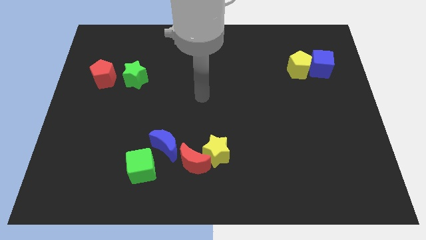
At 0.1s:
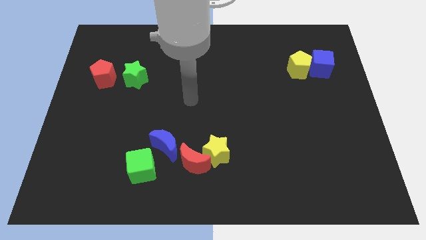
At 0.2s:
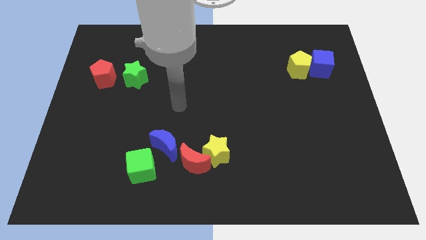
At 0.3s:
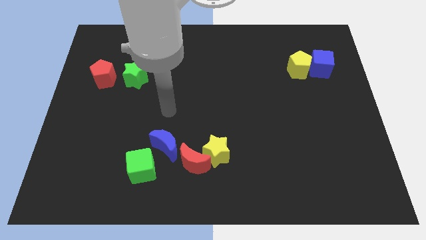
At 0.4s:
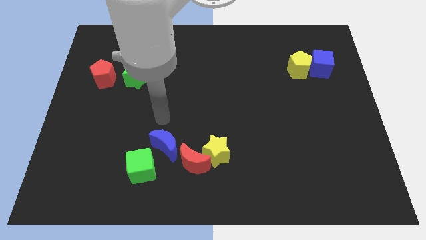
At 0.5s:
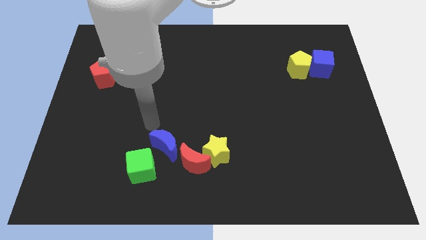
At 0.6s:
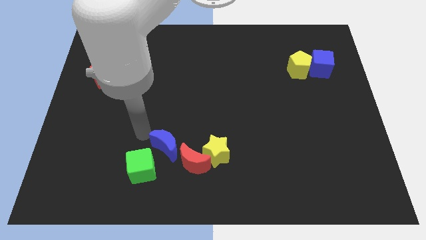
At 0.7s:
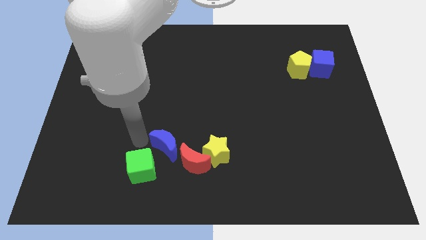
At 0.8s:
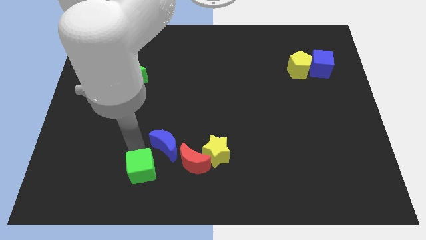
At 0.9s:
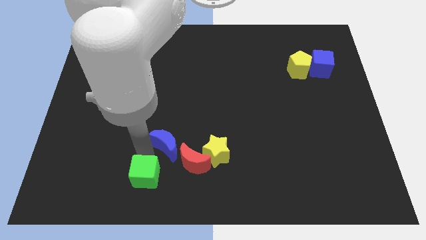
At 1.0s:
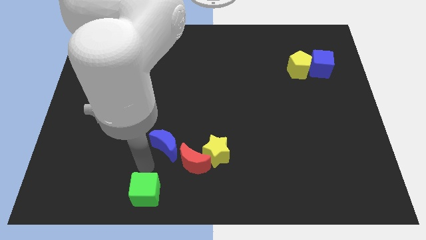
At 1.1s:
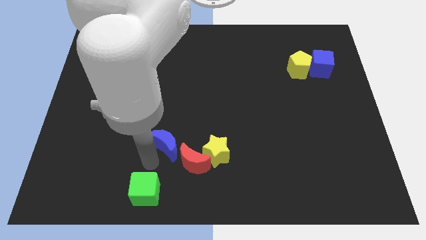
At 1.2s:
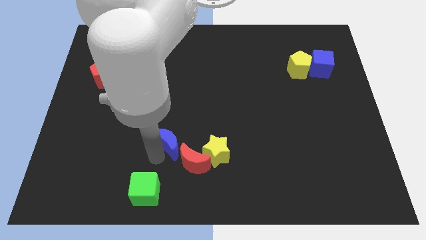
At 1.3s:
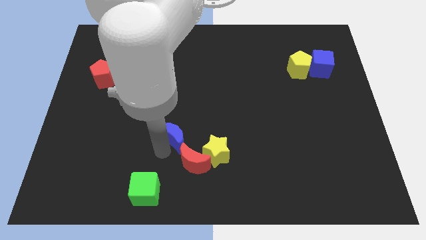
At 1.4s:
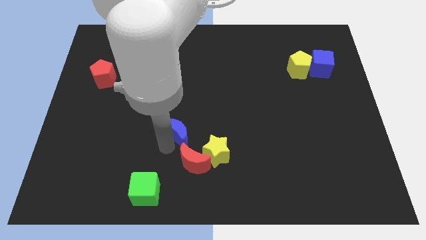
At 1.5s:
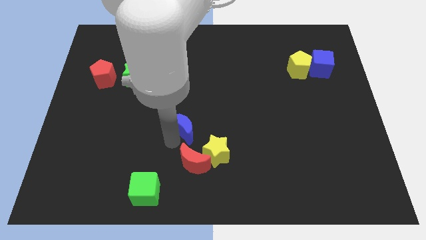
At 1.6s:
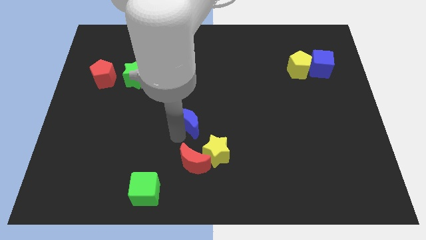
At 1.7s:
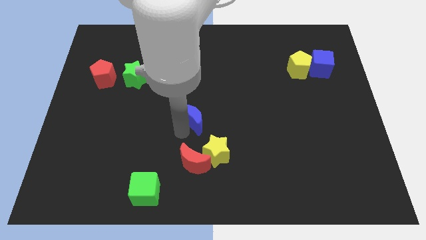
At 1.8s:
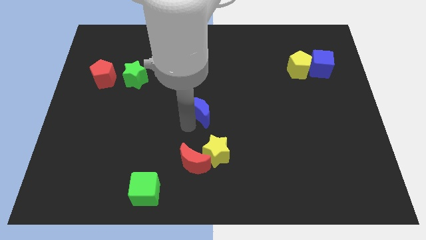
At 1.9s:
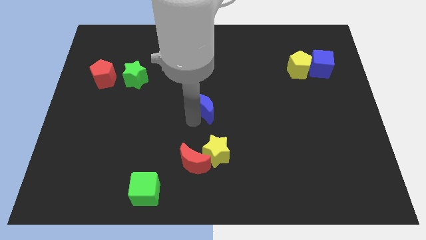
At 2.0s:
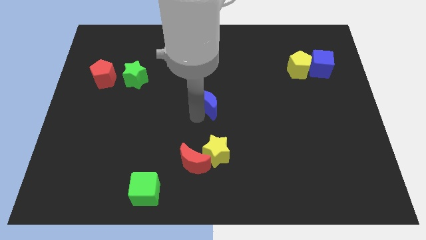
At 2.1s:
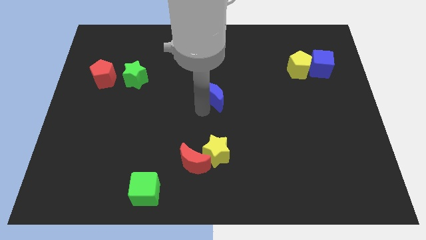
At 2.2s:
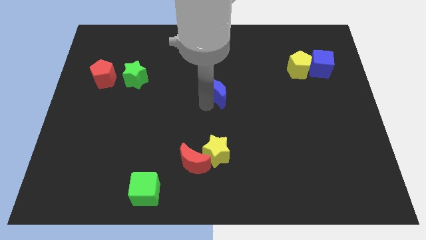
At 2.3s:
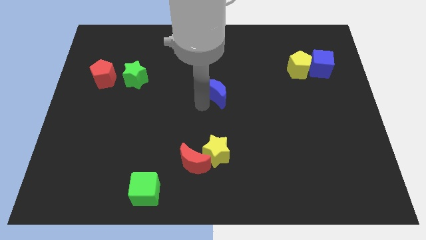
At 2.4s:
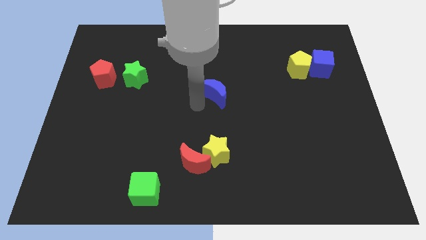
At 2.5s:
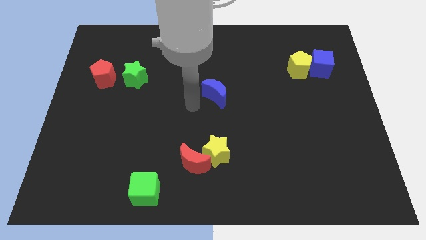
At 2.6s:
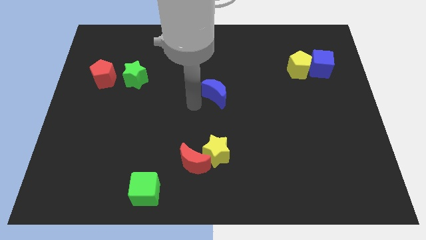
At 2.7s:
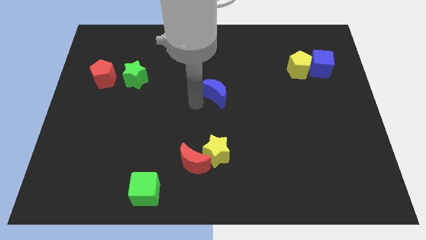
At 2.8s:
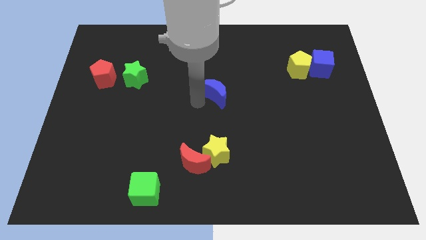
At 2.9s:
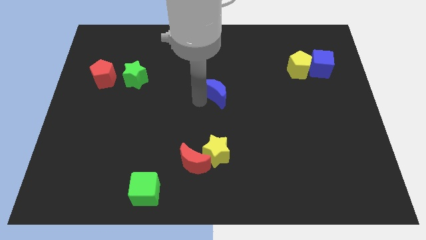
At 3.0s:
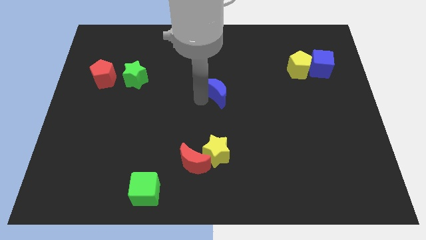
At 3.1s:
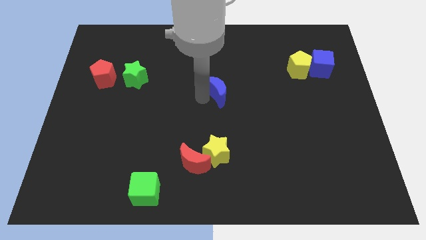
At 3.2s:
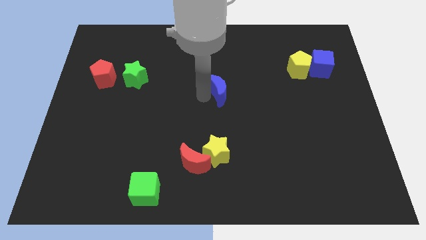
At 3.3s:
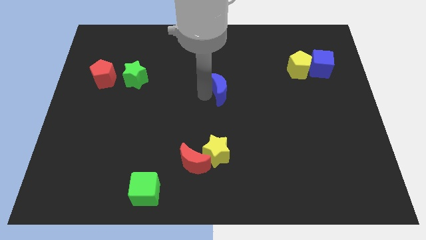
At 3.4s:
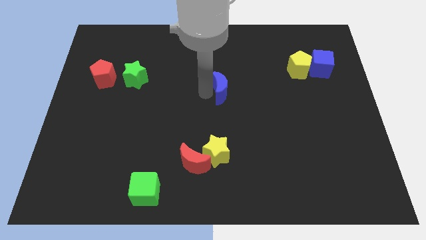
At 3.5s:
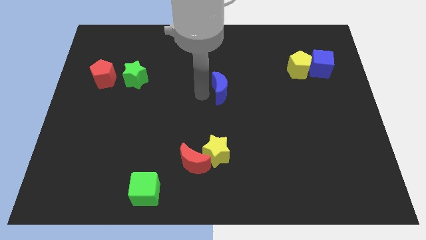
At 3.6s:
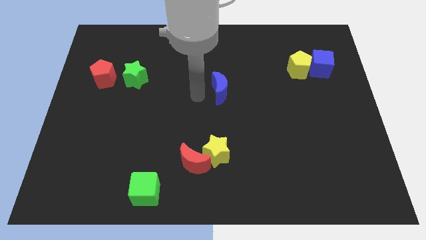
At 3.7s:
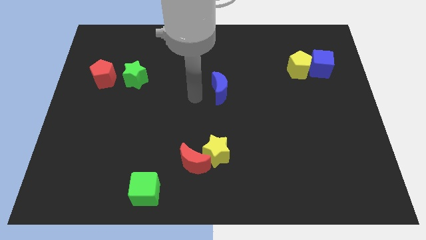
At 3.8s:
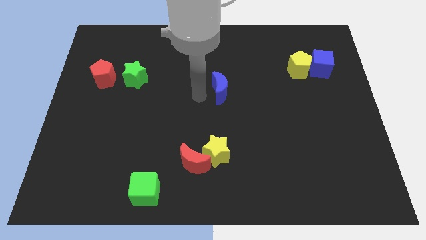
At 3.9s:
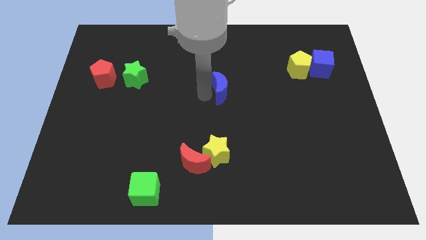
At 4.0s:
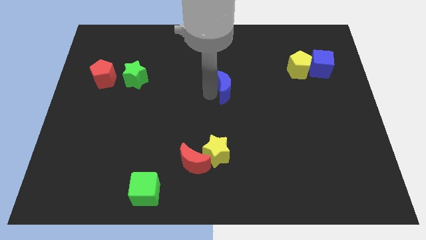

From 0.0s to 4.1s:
slide the blue moon upwards and to the right diagonally

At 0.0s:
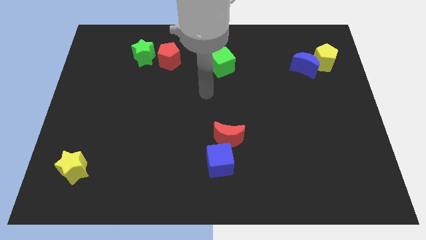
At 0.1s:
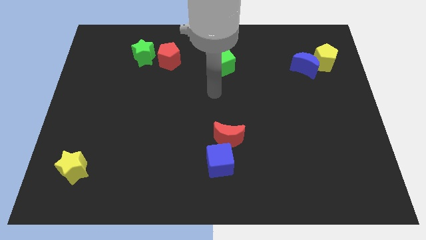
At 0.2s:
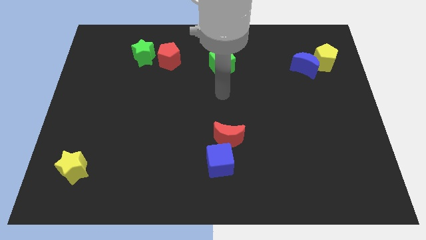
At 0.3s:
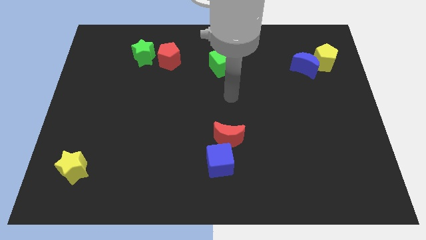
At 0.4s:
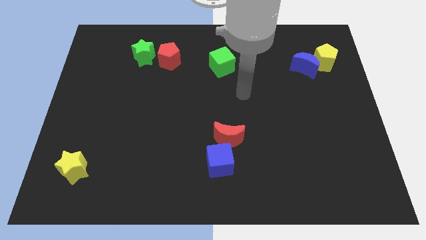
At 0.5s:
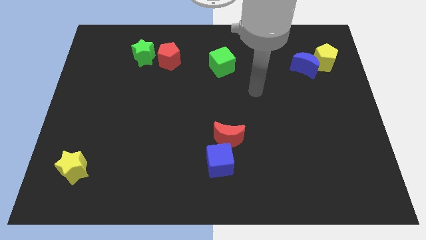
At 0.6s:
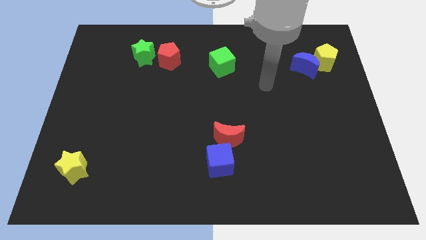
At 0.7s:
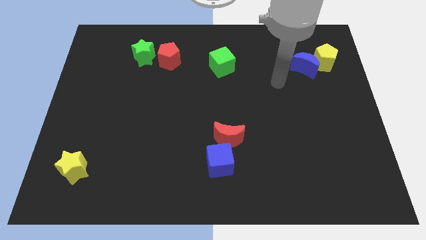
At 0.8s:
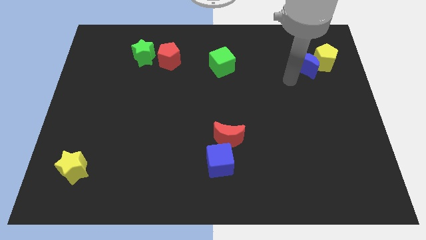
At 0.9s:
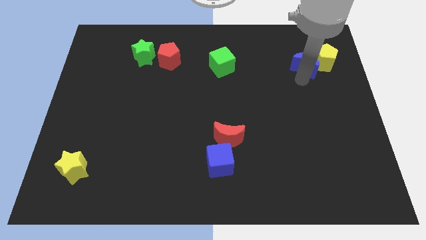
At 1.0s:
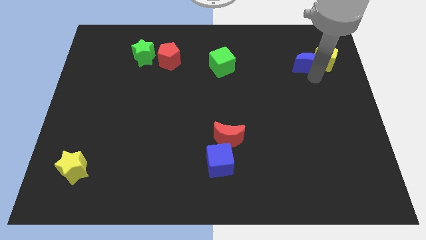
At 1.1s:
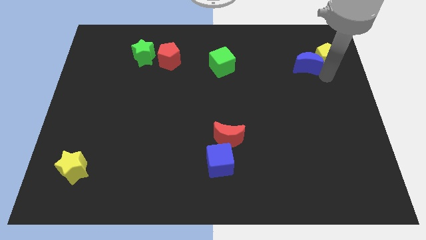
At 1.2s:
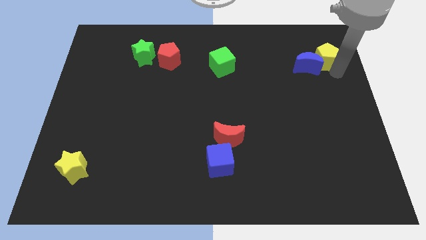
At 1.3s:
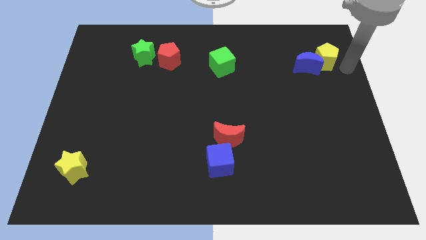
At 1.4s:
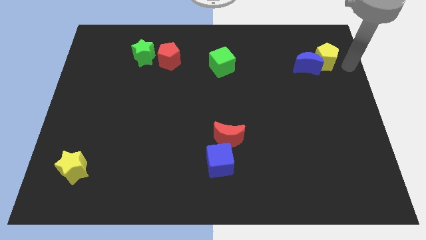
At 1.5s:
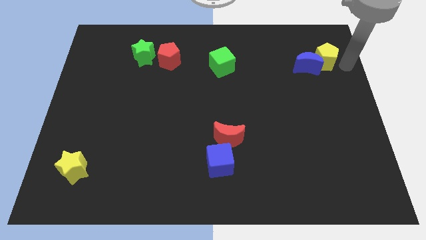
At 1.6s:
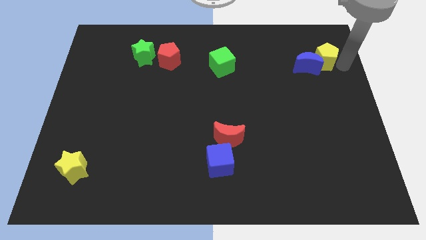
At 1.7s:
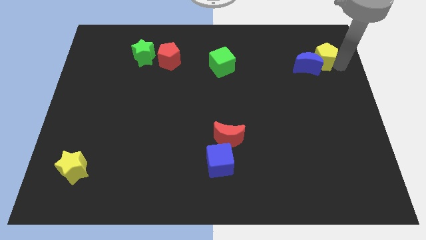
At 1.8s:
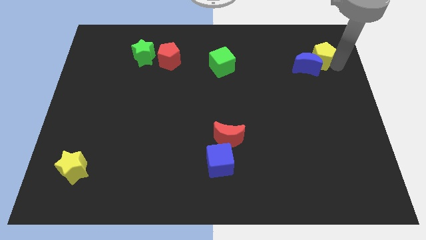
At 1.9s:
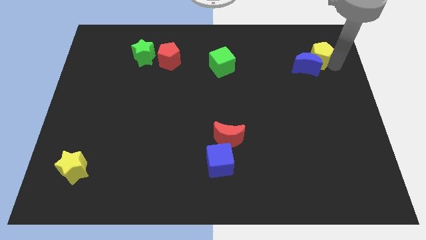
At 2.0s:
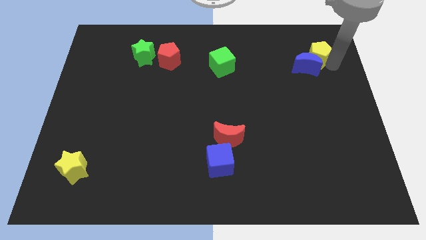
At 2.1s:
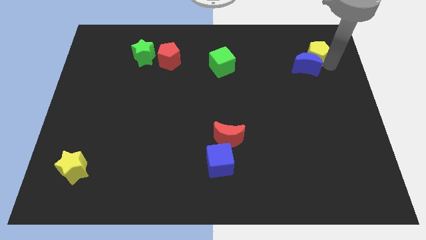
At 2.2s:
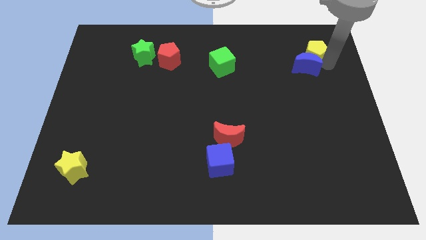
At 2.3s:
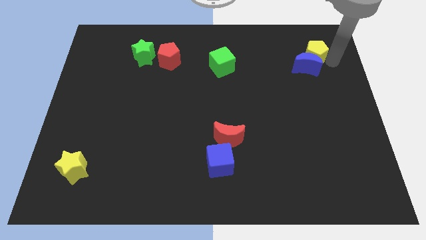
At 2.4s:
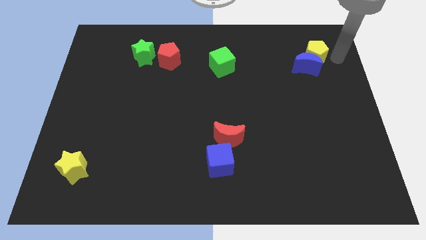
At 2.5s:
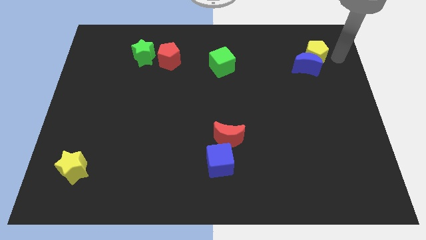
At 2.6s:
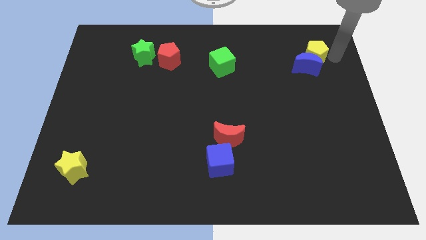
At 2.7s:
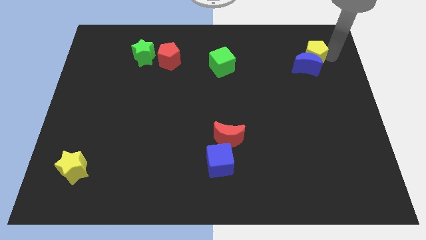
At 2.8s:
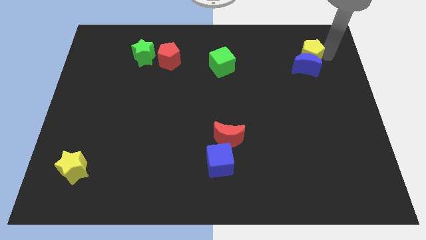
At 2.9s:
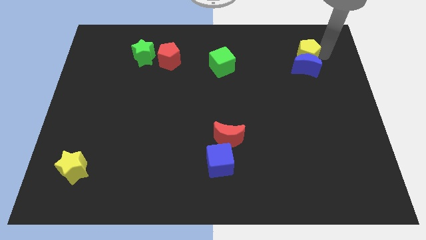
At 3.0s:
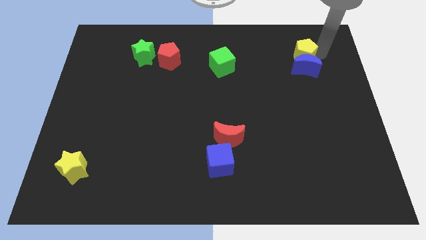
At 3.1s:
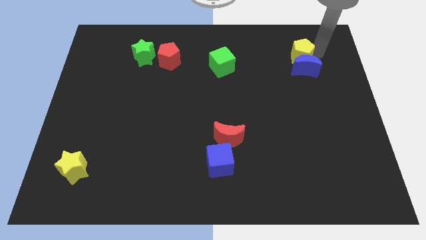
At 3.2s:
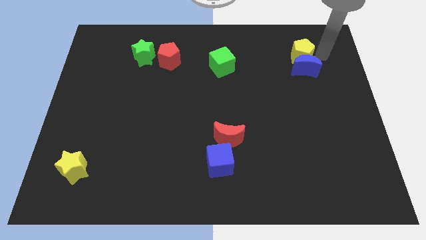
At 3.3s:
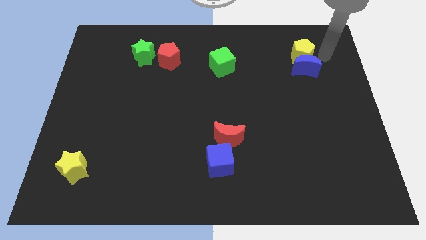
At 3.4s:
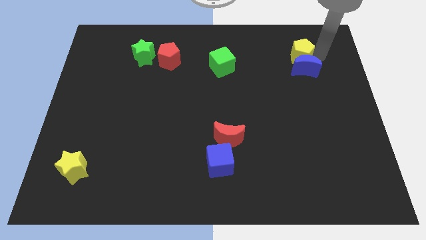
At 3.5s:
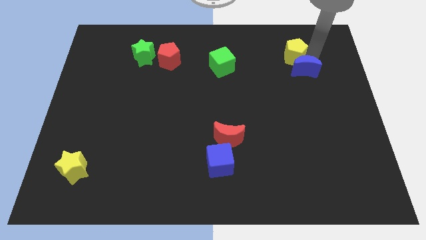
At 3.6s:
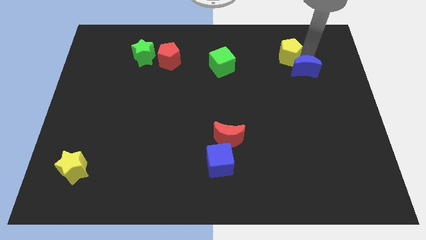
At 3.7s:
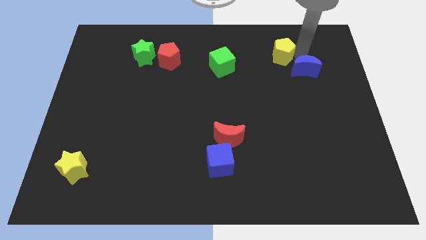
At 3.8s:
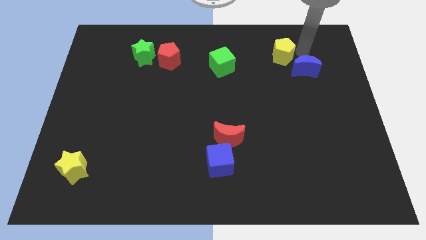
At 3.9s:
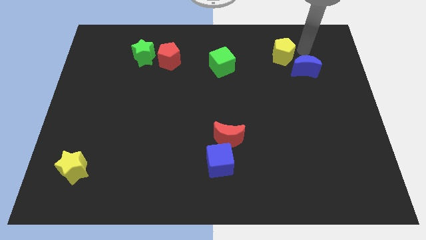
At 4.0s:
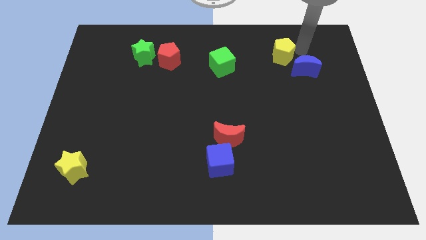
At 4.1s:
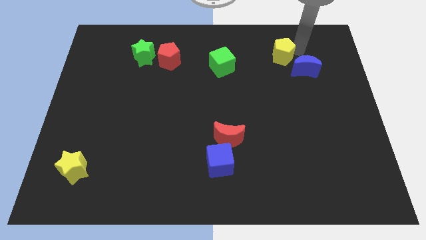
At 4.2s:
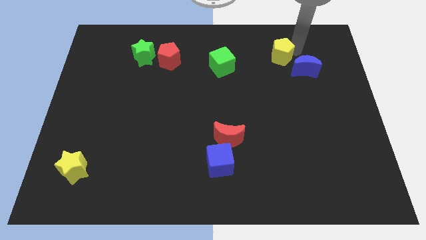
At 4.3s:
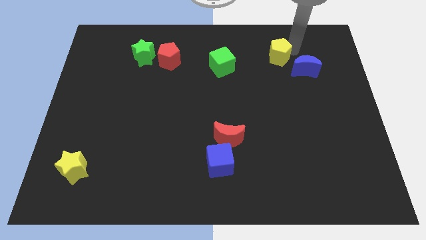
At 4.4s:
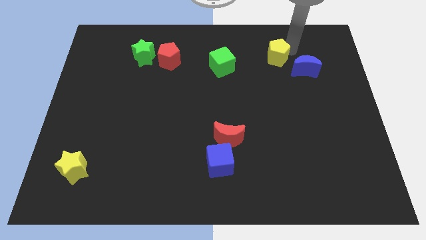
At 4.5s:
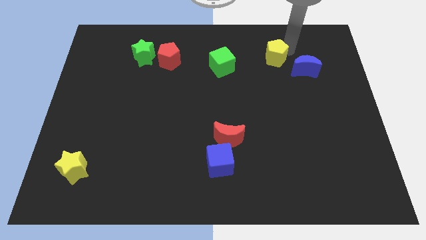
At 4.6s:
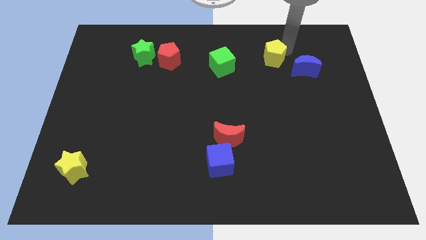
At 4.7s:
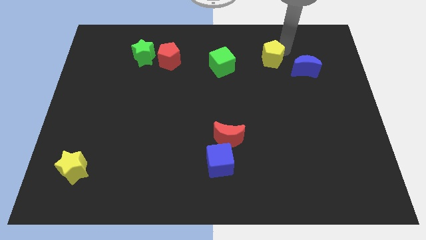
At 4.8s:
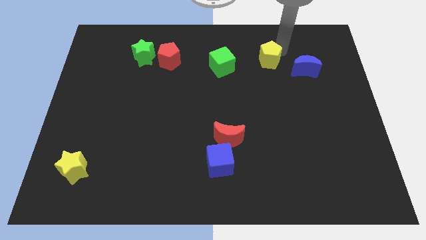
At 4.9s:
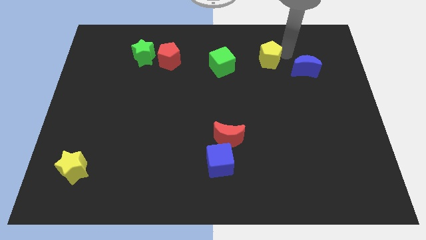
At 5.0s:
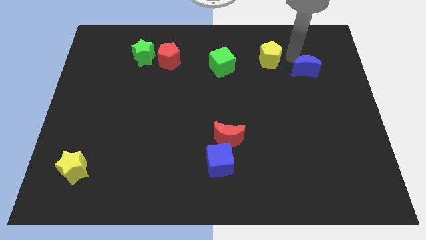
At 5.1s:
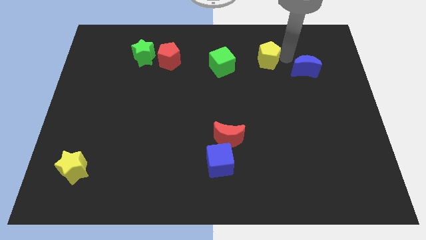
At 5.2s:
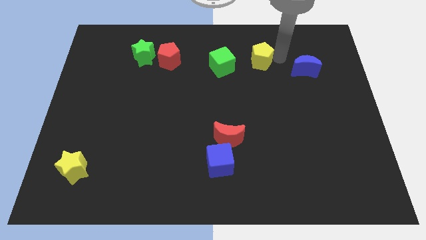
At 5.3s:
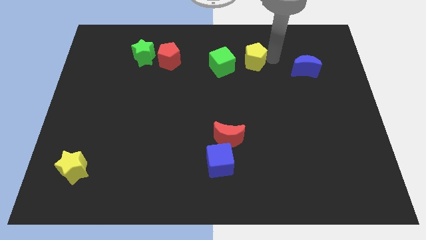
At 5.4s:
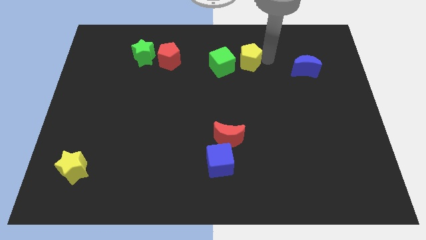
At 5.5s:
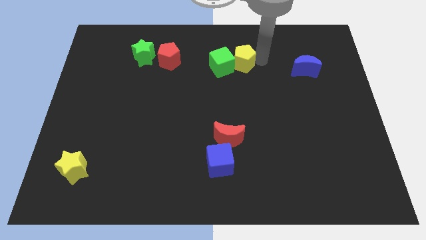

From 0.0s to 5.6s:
push the yellow pentagon to the left
